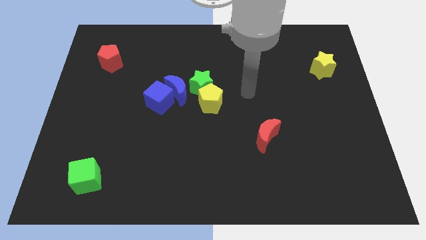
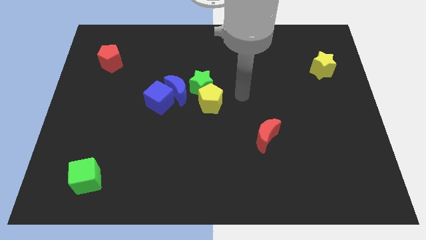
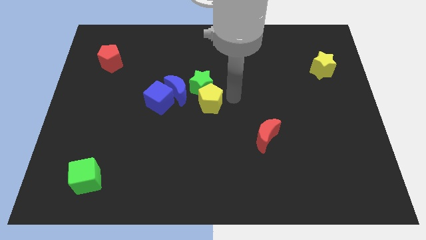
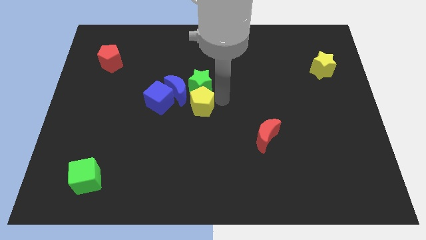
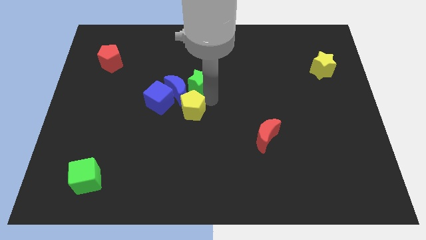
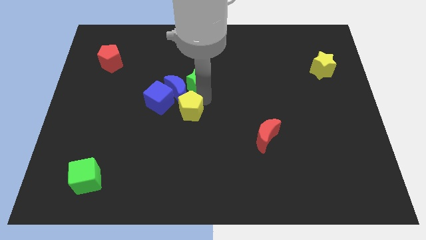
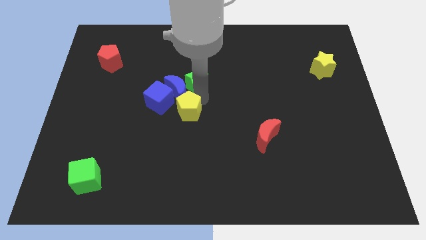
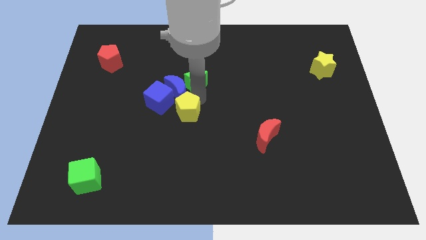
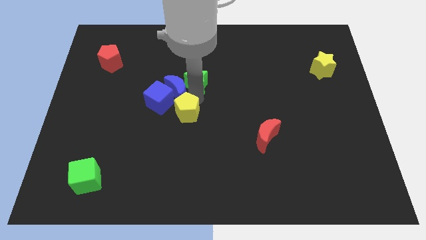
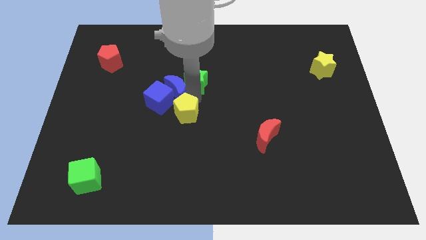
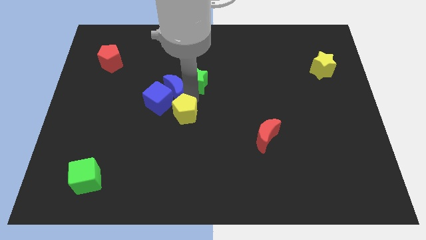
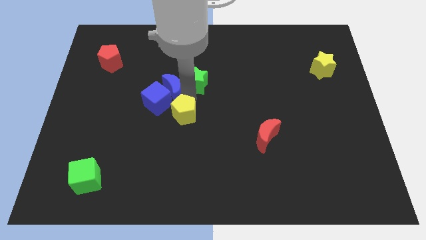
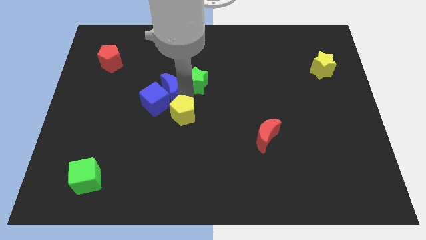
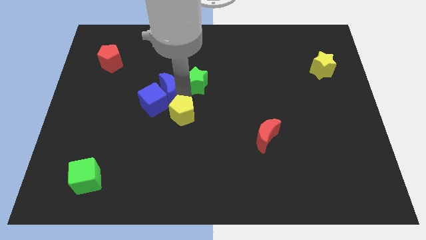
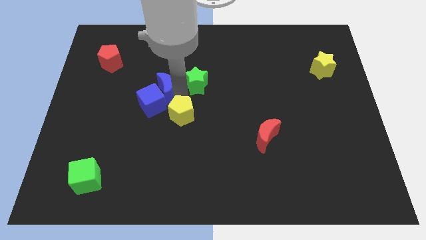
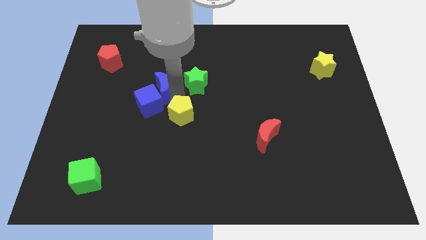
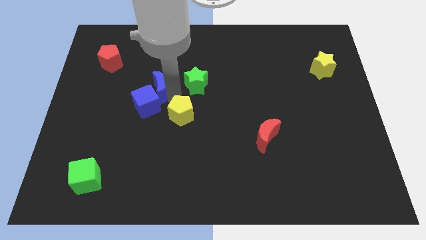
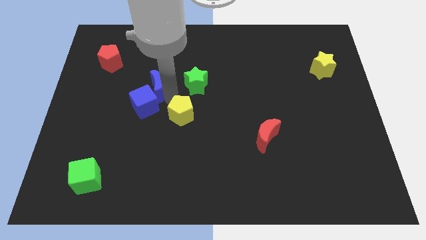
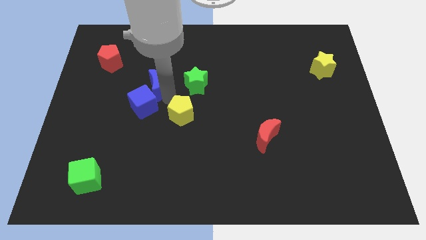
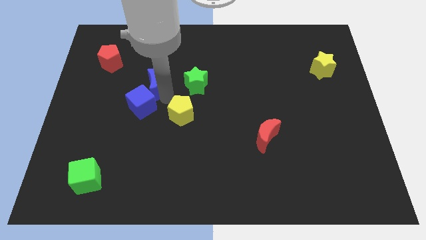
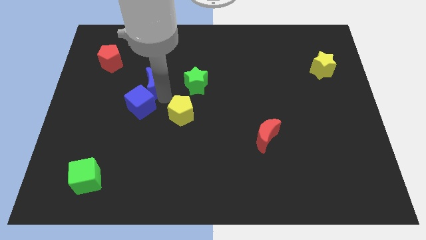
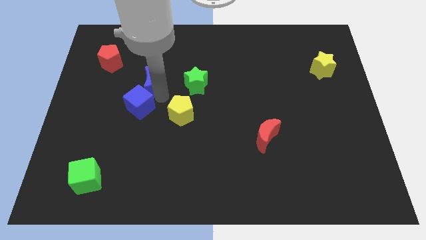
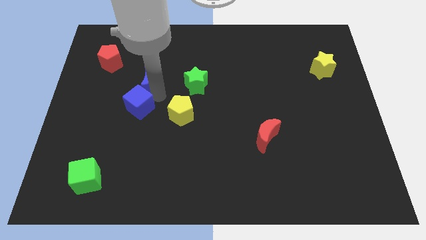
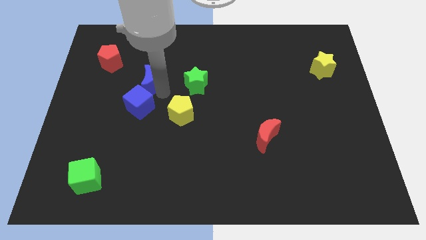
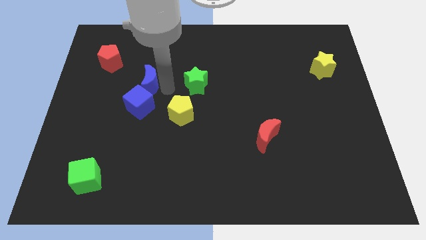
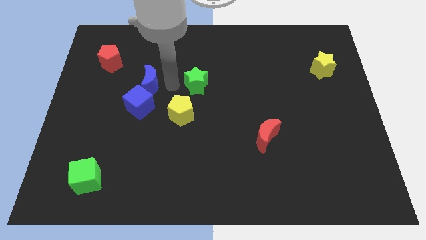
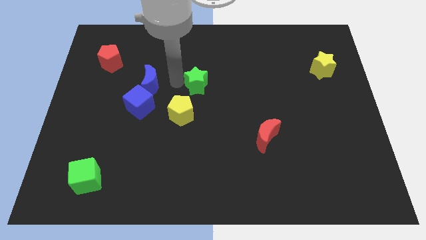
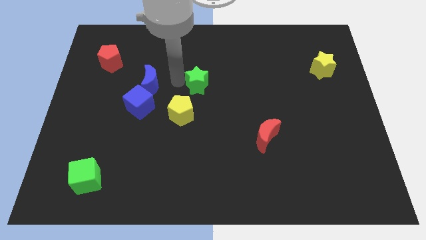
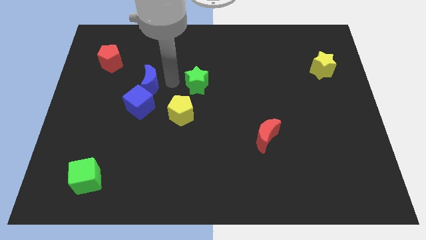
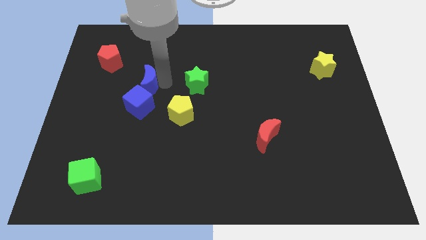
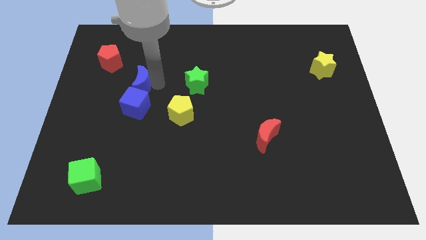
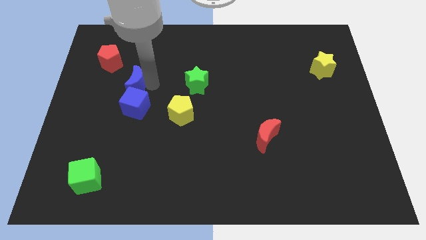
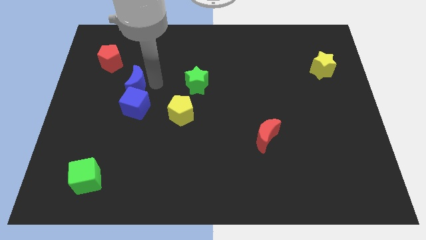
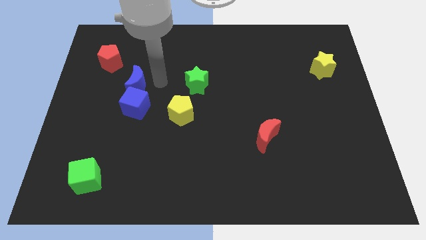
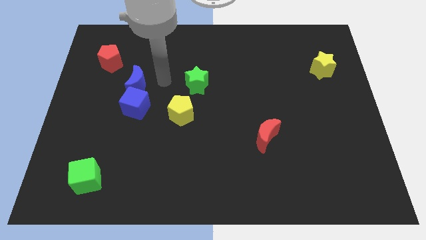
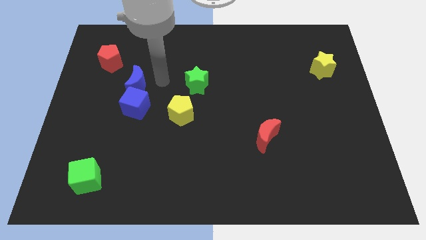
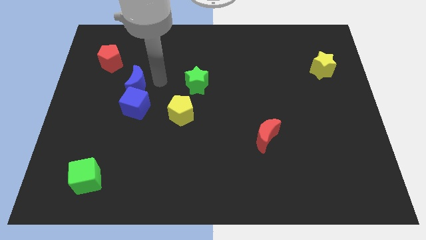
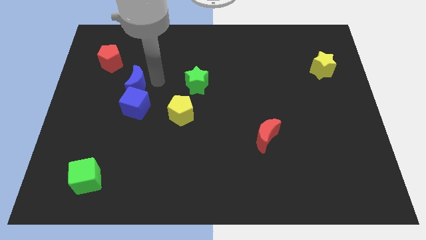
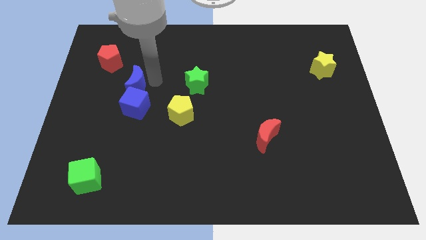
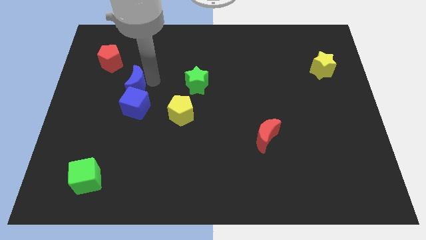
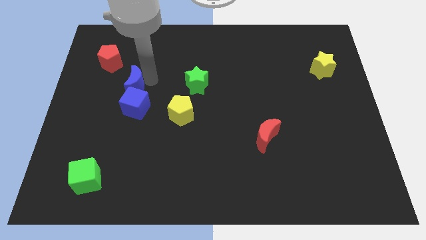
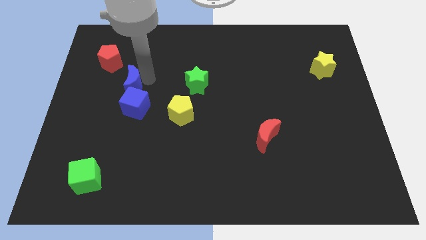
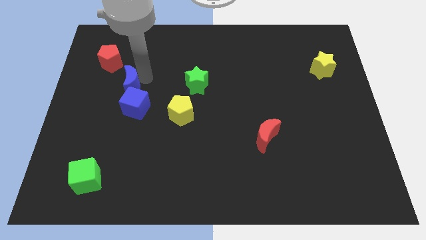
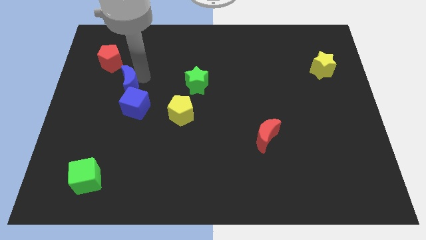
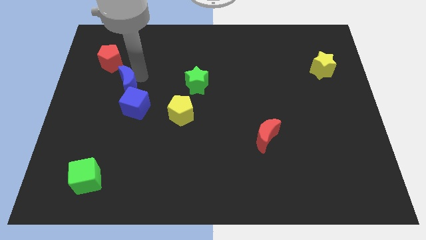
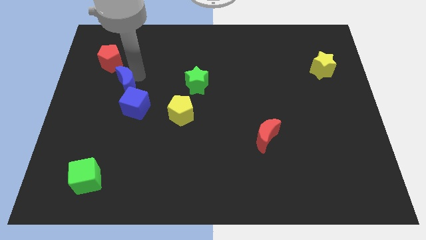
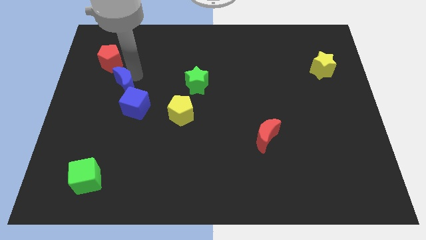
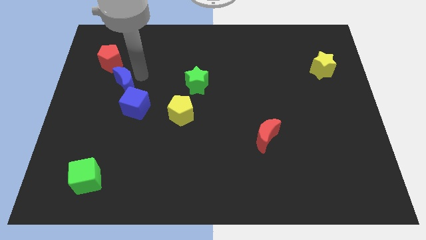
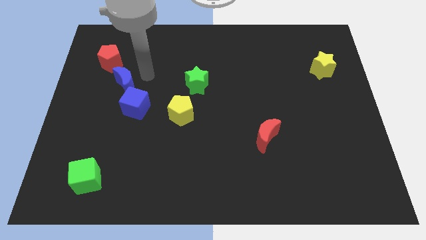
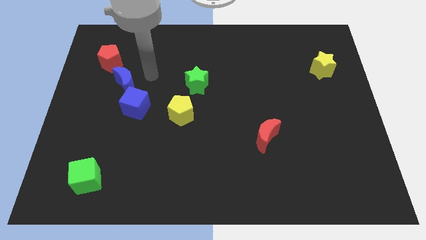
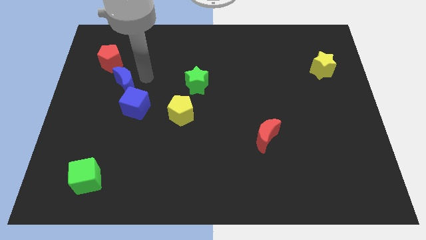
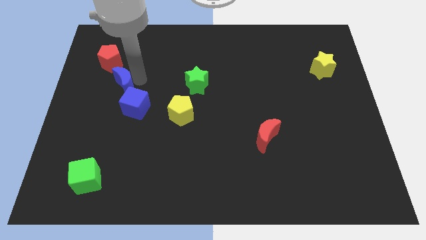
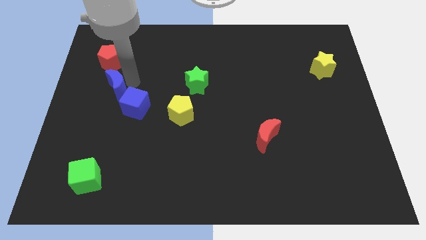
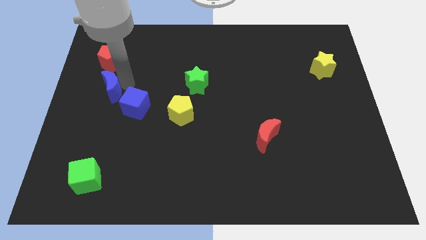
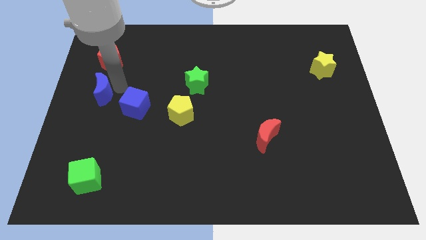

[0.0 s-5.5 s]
put the blue moon to the left side of the board

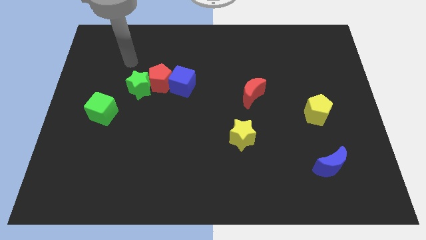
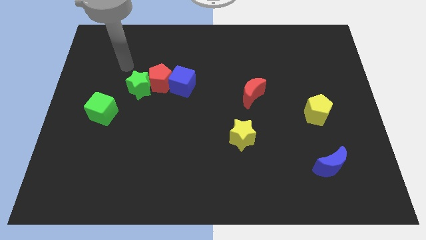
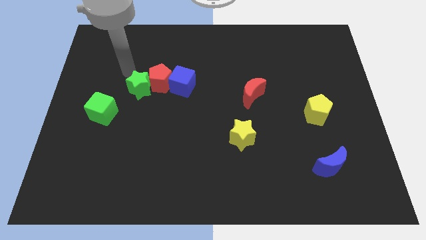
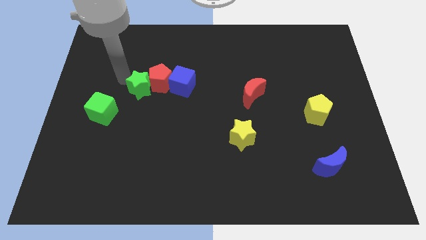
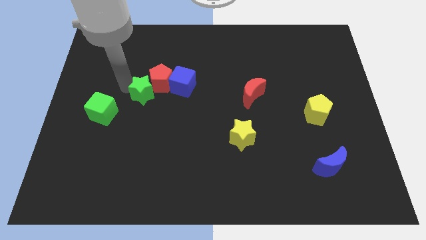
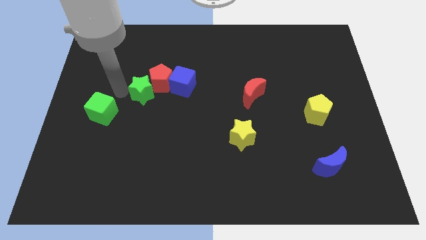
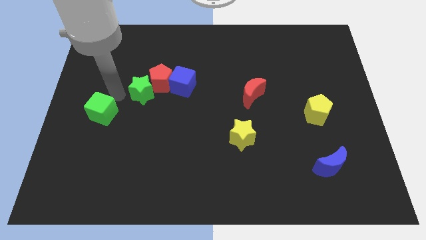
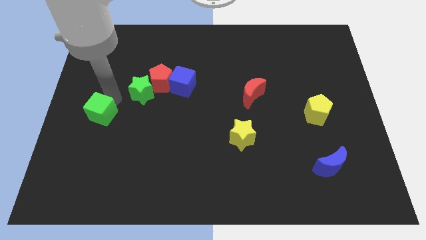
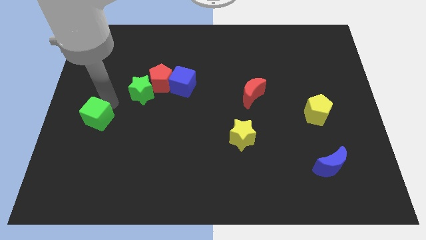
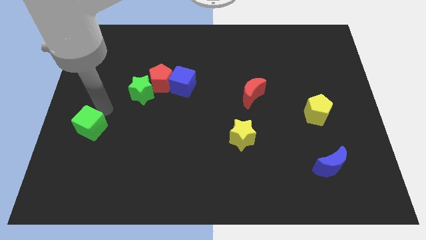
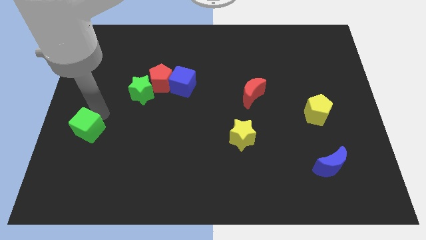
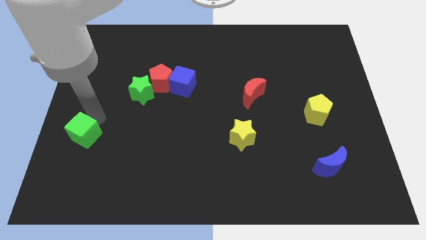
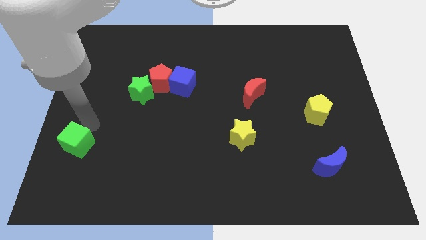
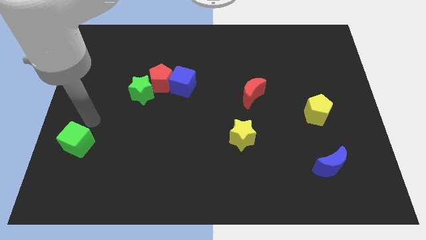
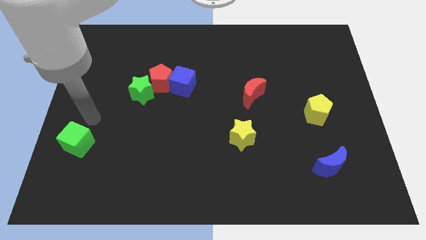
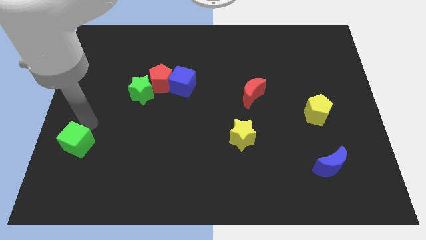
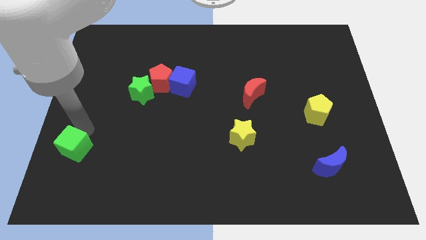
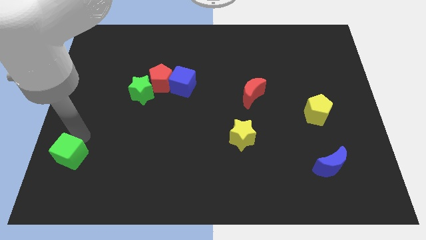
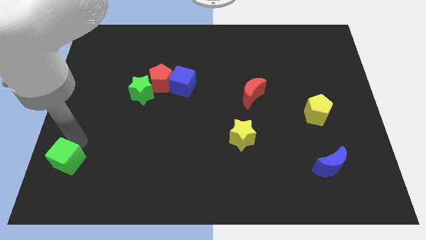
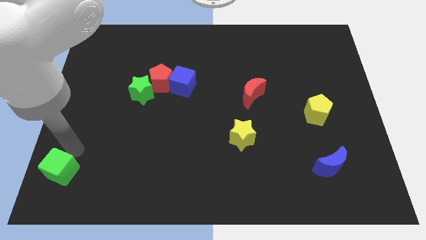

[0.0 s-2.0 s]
move the green cube to the lower left corner

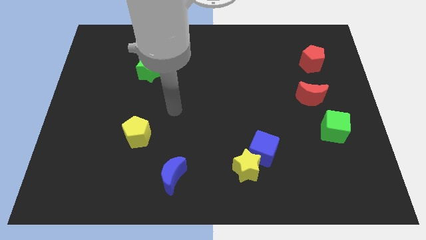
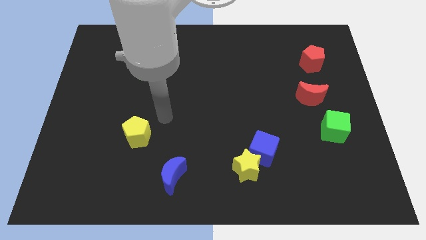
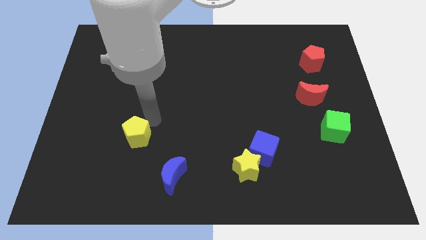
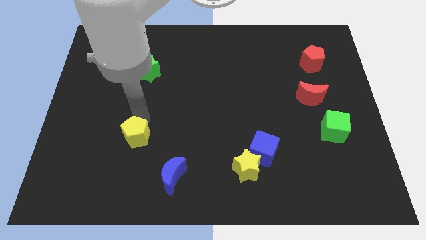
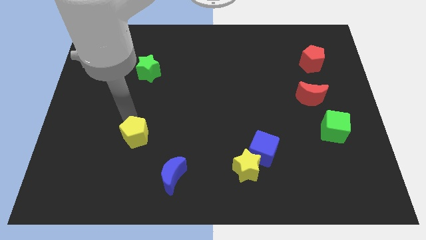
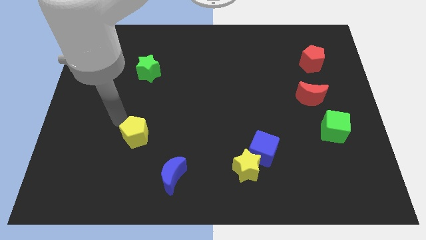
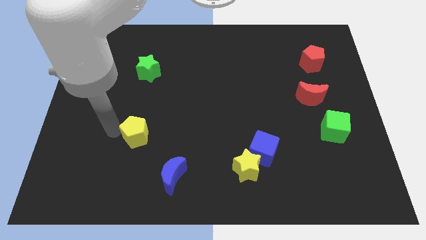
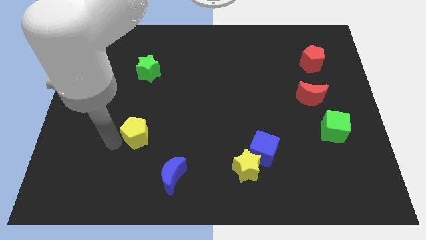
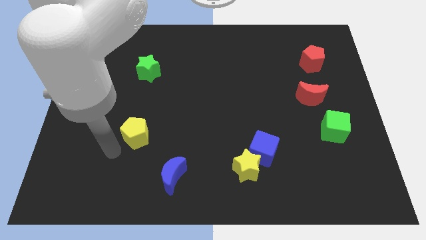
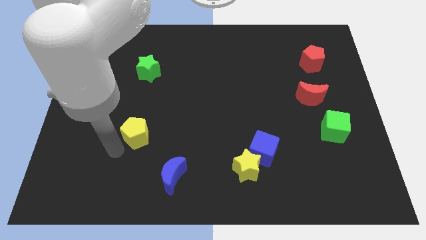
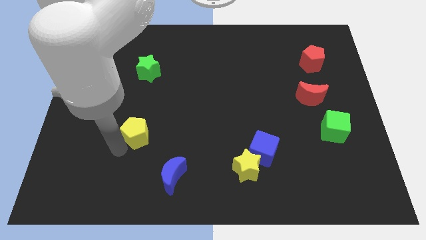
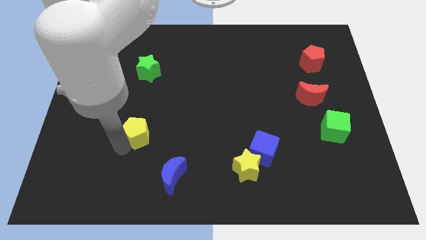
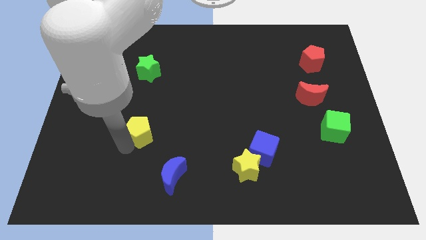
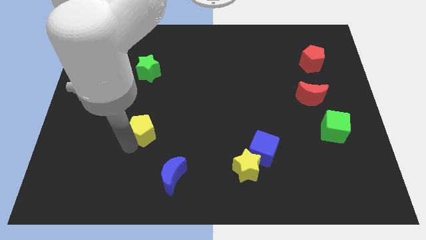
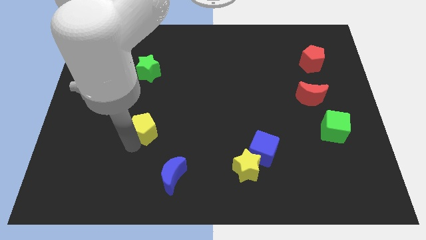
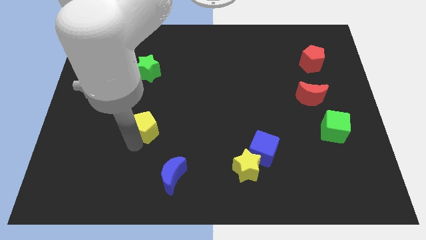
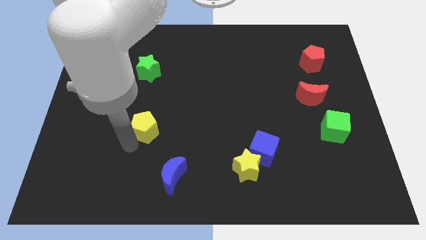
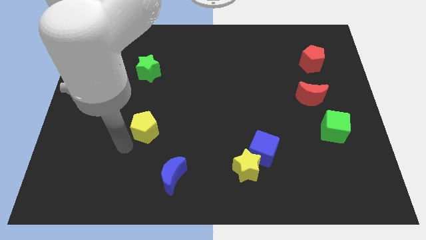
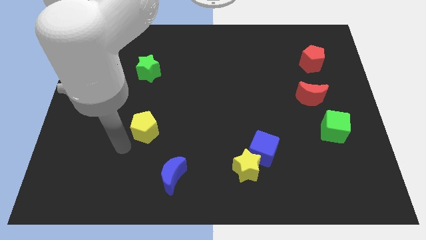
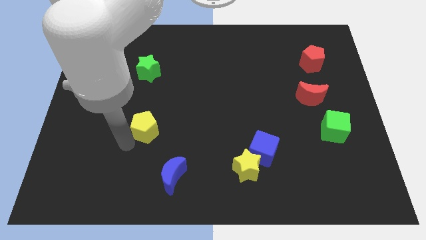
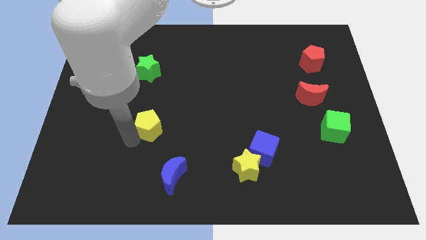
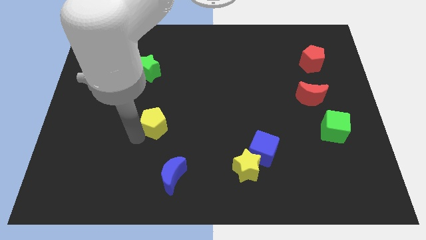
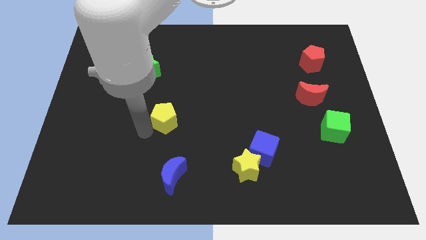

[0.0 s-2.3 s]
move the yellow pentagon to the center of the board
